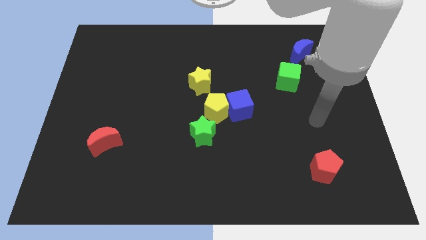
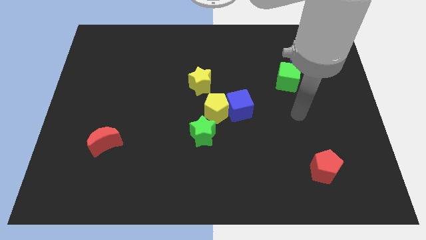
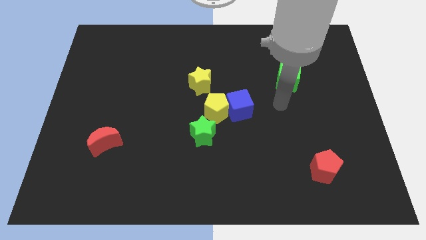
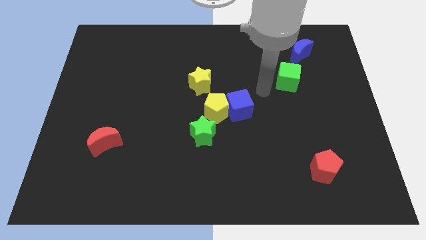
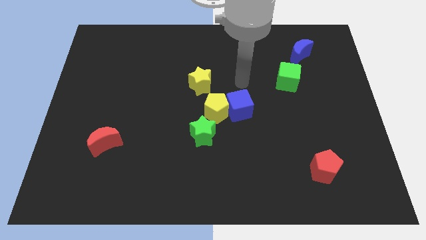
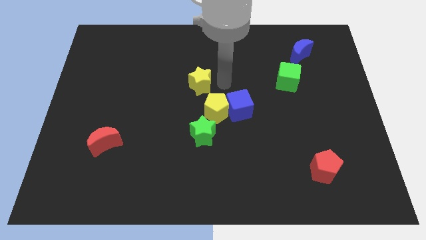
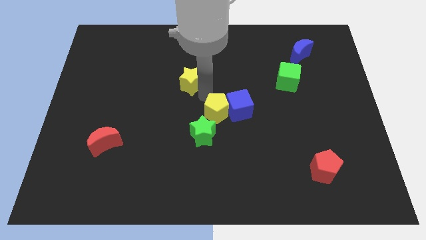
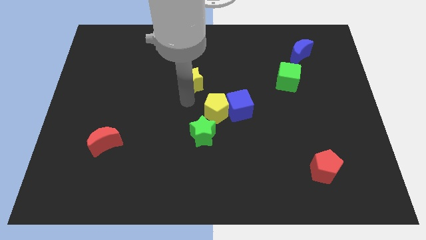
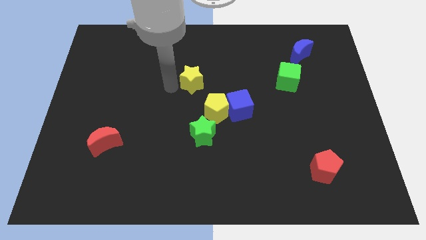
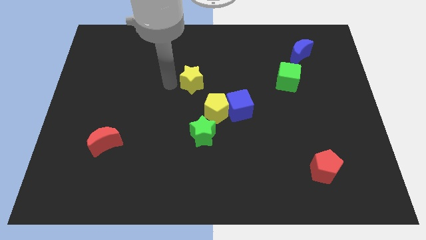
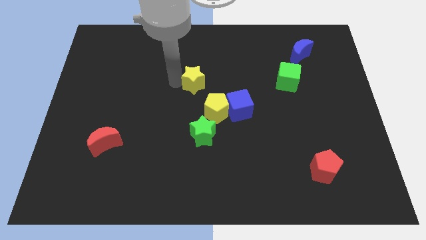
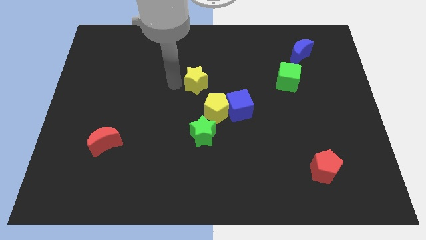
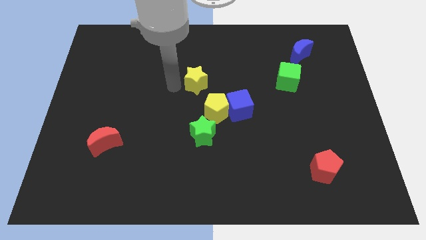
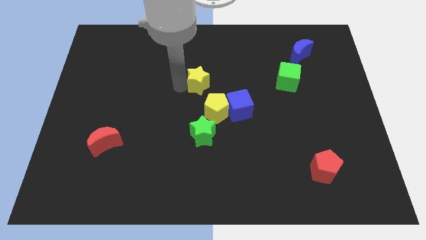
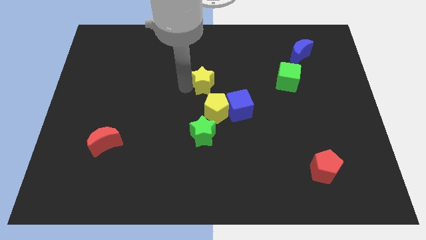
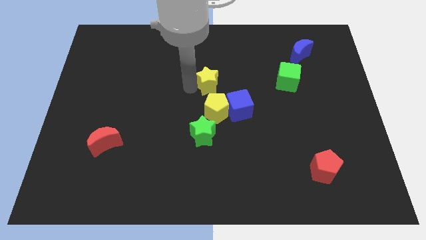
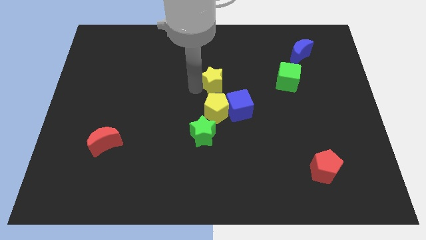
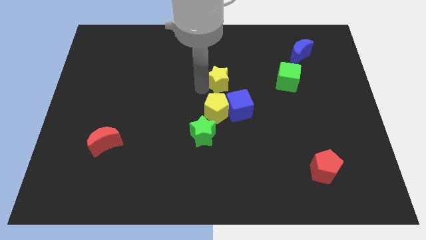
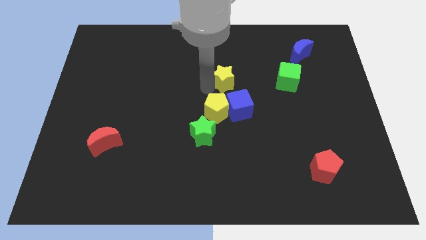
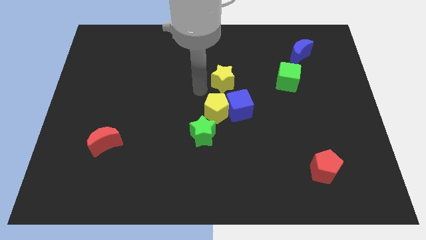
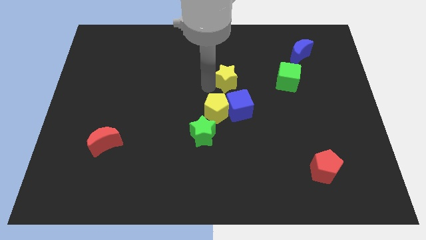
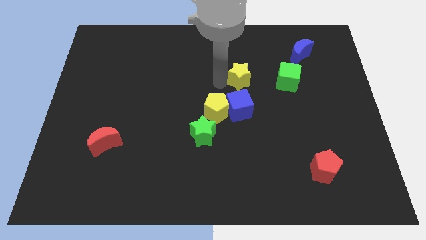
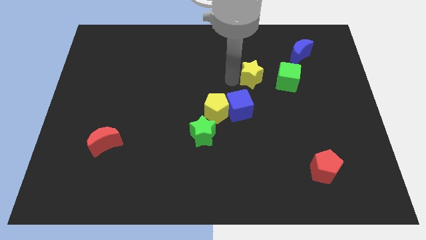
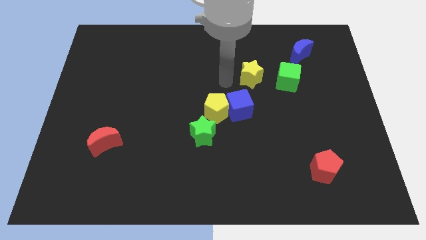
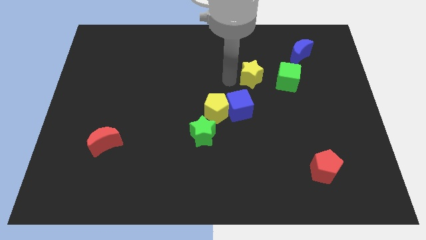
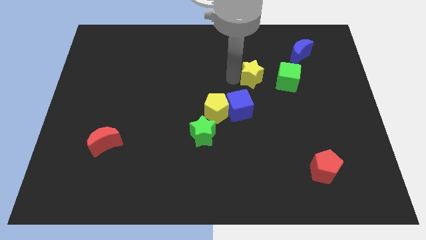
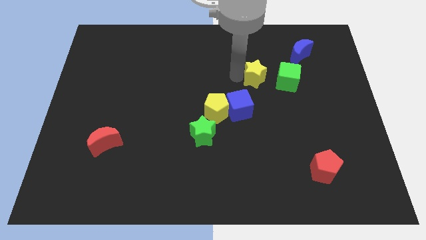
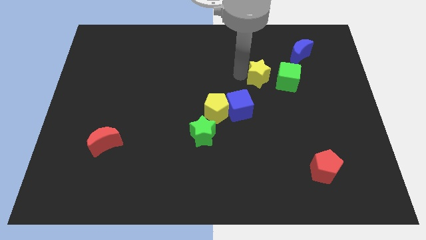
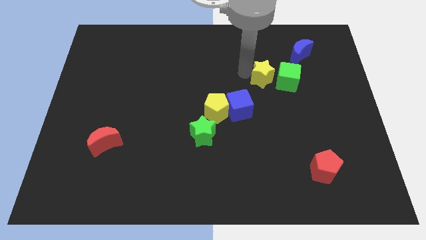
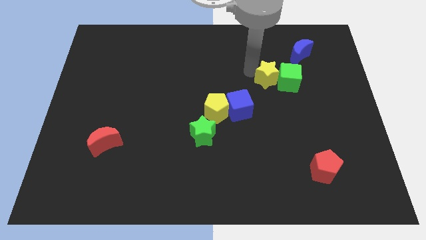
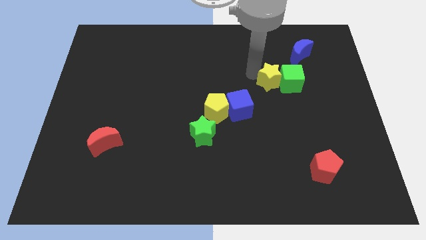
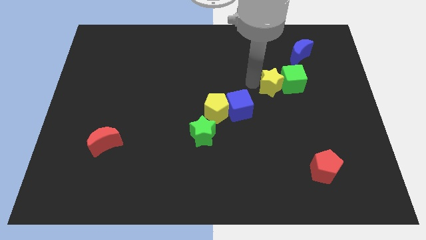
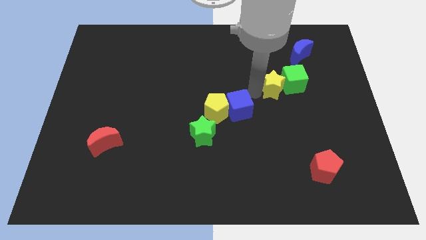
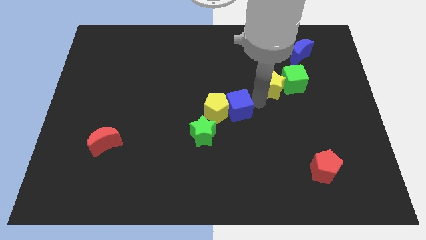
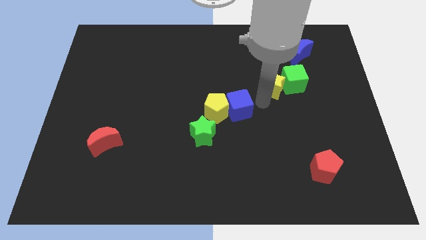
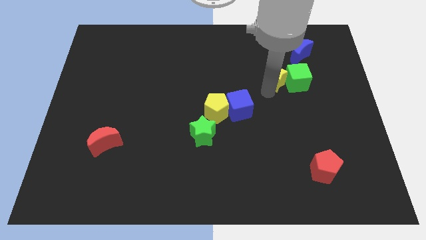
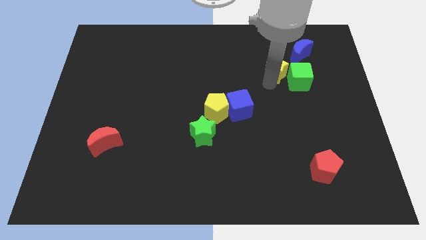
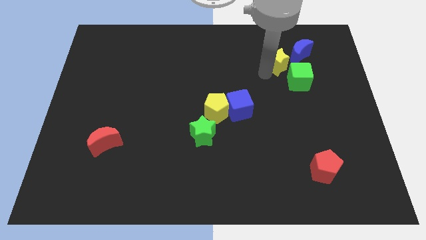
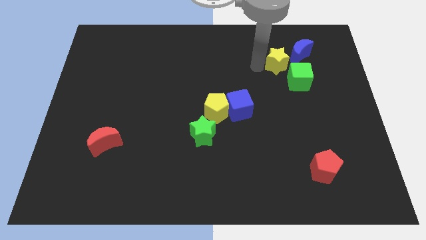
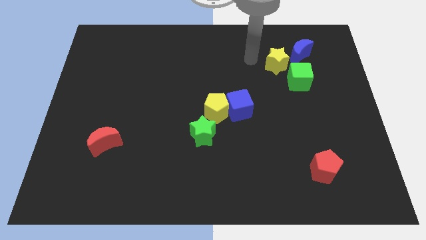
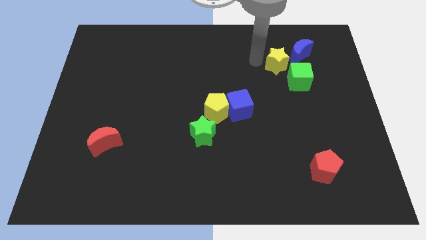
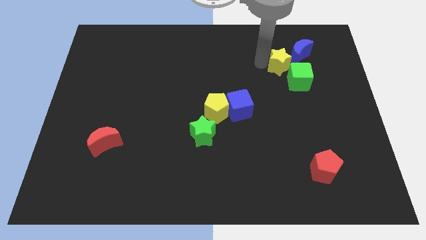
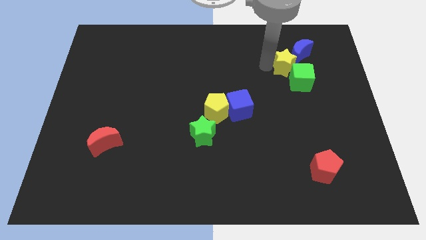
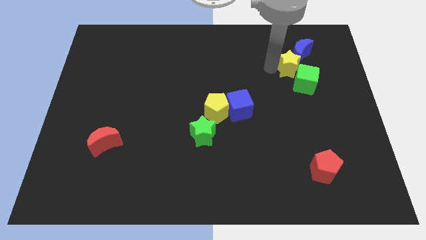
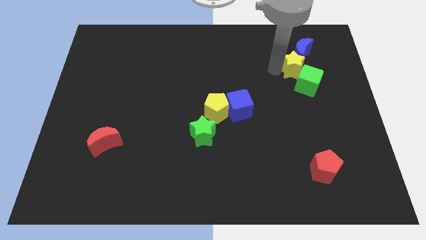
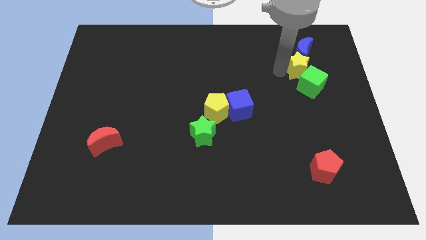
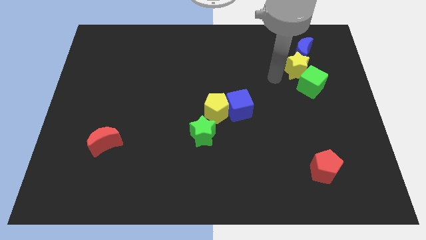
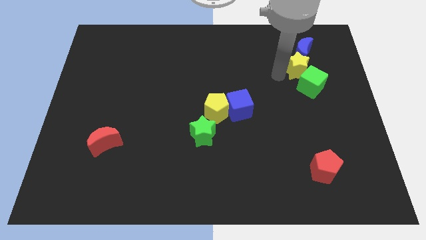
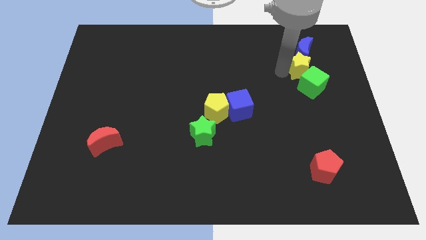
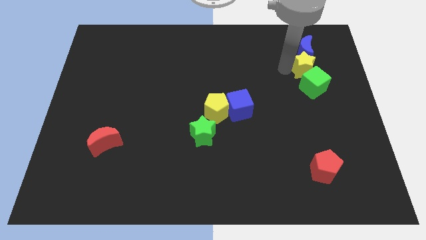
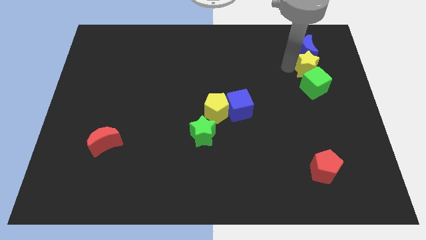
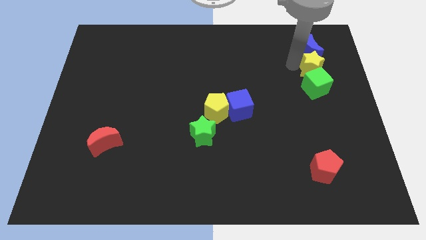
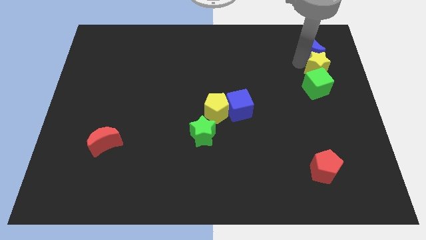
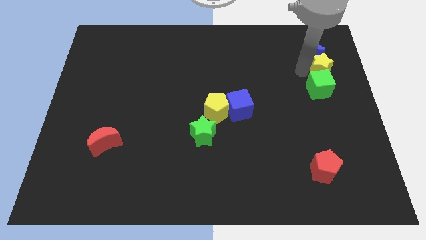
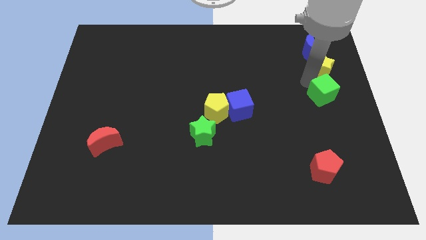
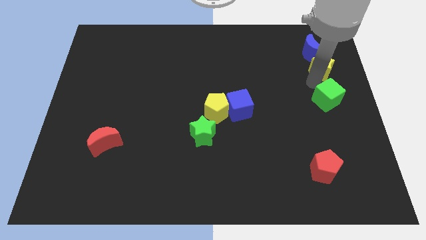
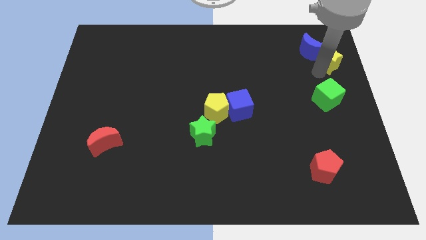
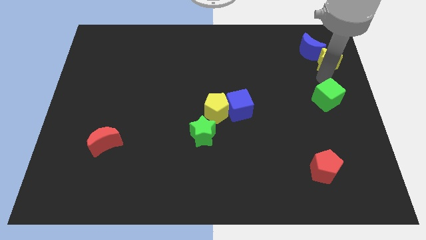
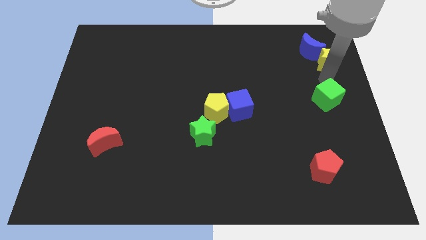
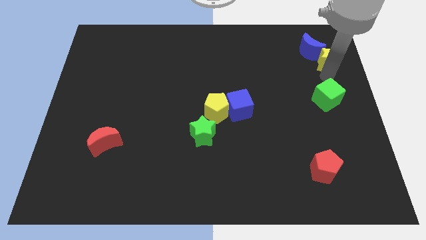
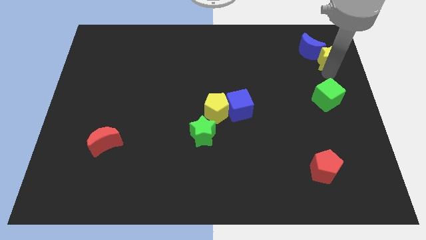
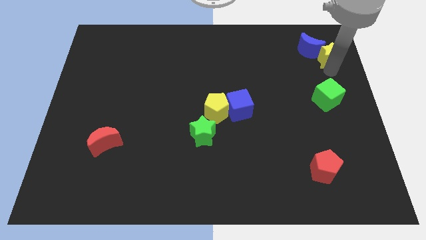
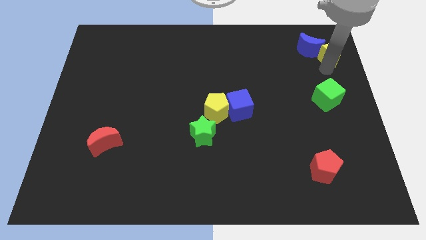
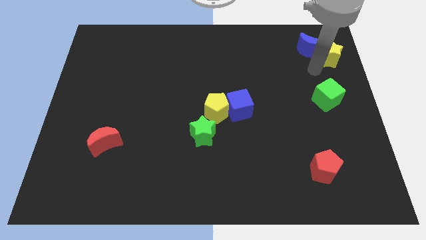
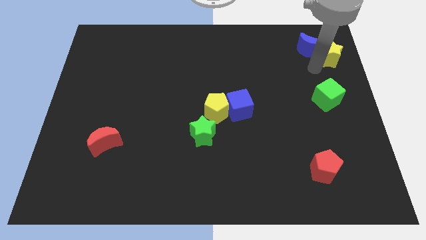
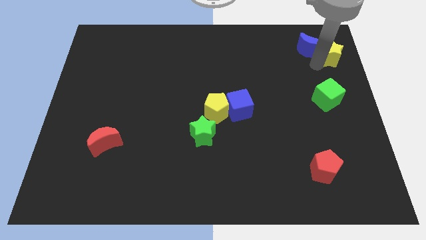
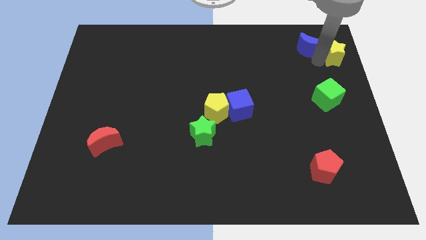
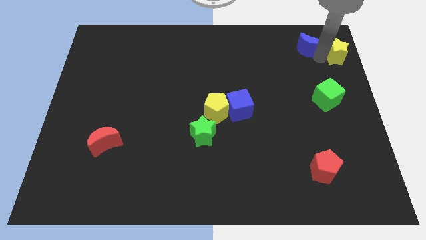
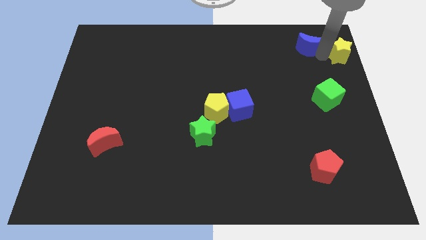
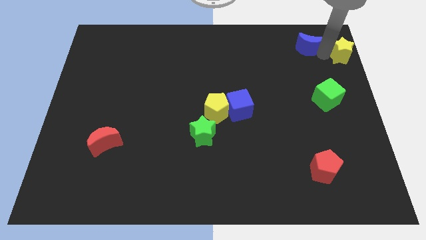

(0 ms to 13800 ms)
put the yellow star to the top right
